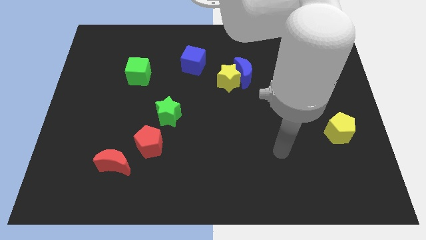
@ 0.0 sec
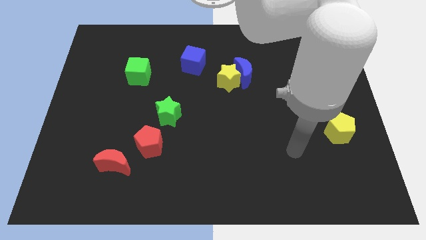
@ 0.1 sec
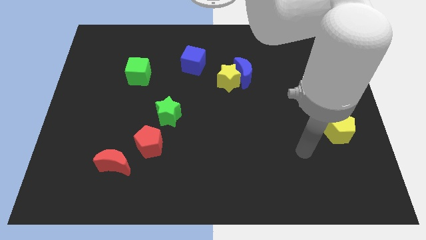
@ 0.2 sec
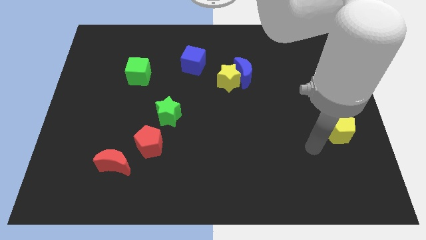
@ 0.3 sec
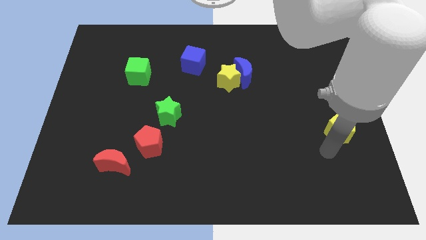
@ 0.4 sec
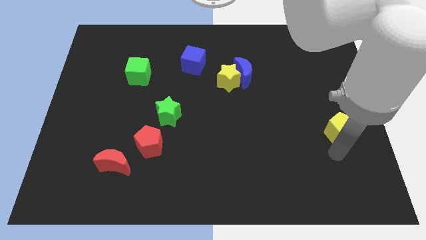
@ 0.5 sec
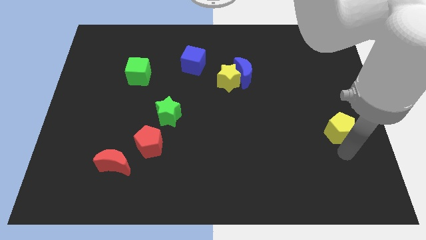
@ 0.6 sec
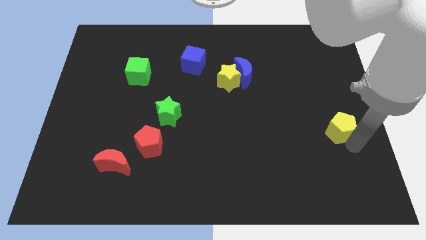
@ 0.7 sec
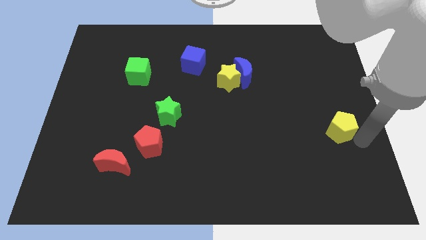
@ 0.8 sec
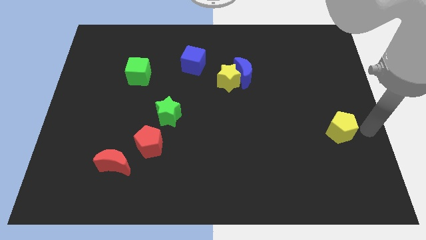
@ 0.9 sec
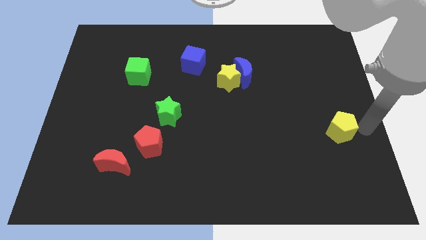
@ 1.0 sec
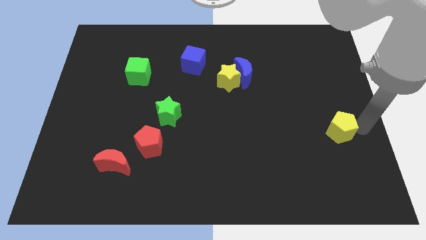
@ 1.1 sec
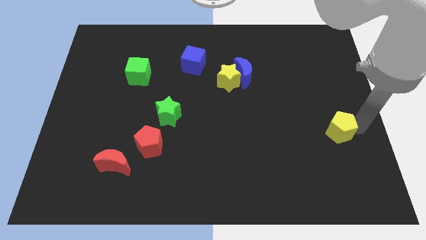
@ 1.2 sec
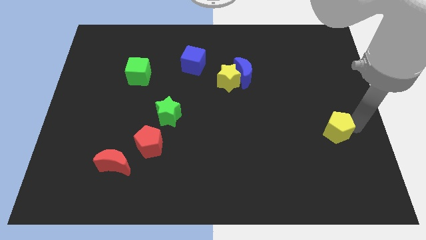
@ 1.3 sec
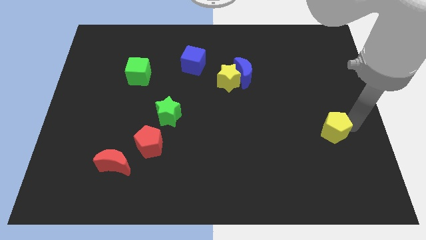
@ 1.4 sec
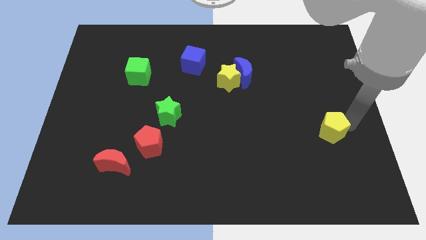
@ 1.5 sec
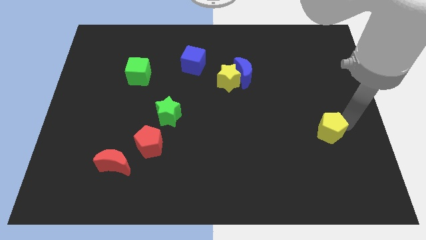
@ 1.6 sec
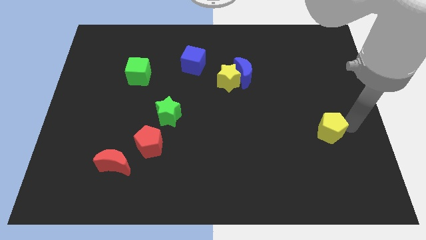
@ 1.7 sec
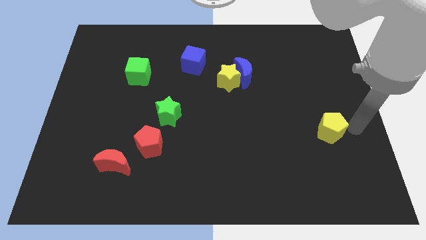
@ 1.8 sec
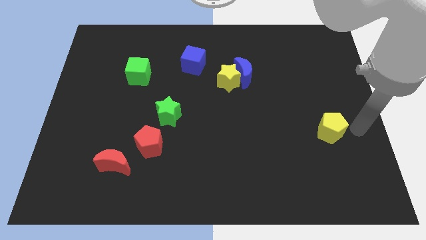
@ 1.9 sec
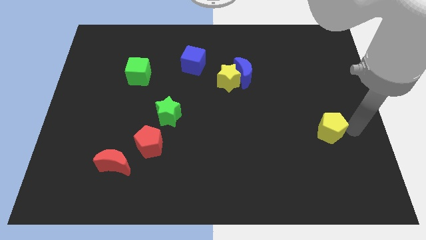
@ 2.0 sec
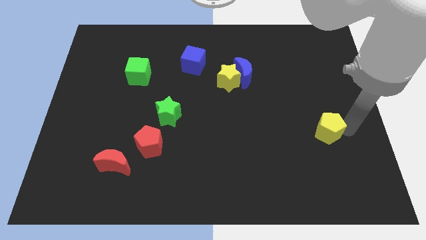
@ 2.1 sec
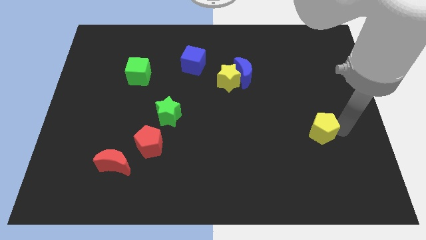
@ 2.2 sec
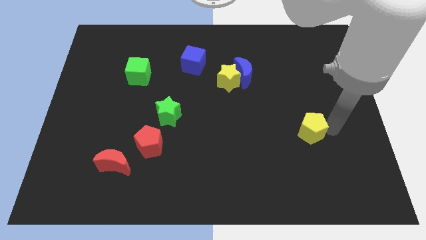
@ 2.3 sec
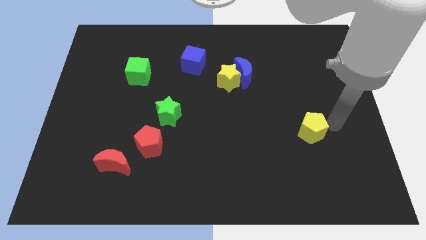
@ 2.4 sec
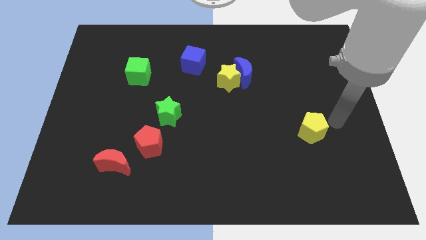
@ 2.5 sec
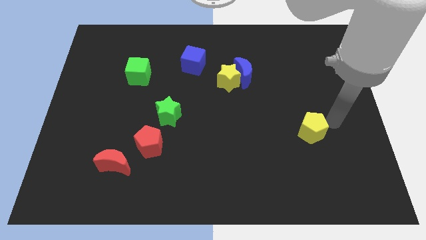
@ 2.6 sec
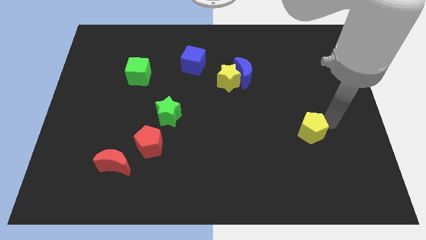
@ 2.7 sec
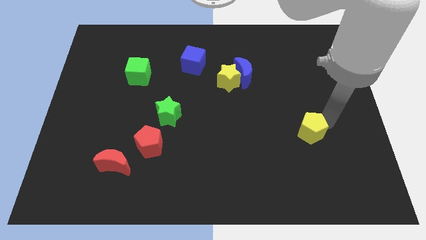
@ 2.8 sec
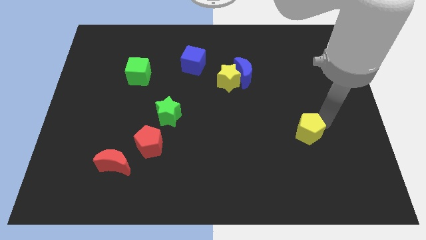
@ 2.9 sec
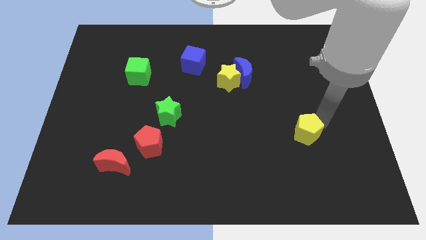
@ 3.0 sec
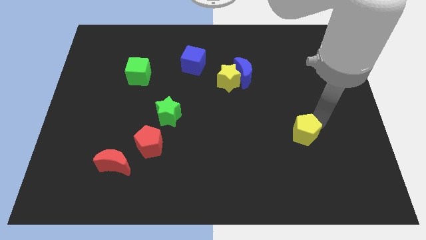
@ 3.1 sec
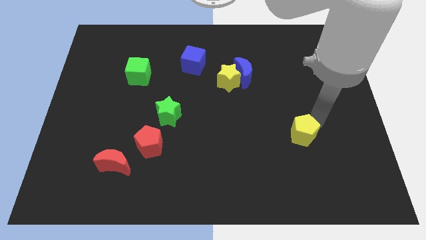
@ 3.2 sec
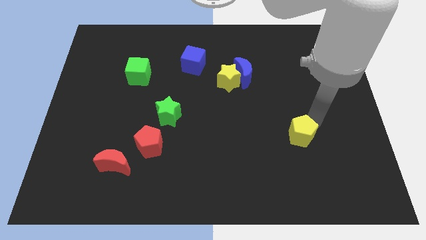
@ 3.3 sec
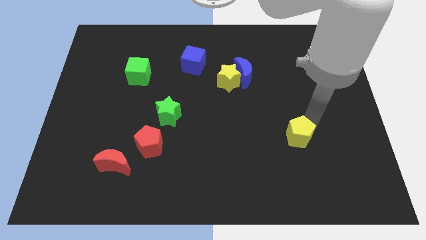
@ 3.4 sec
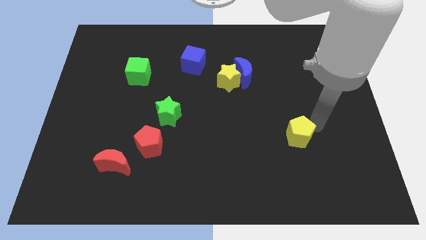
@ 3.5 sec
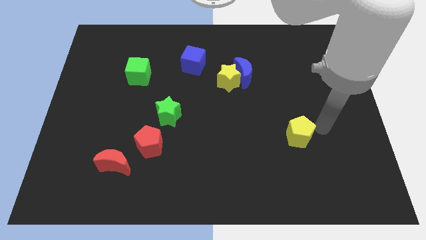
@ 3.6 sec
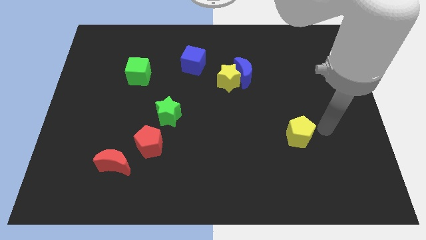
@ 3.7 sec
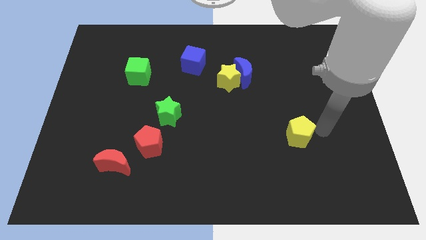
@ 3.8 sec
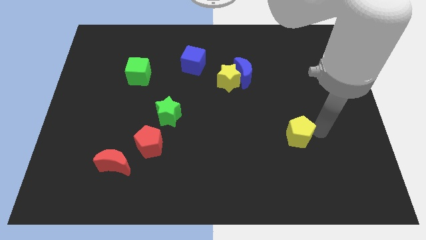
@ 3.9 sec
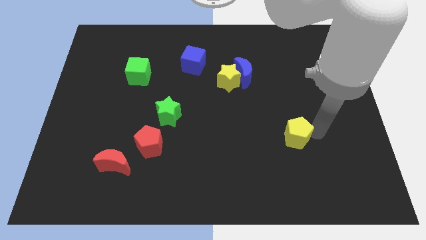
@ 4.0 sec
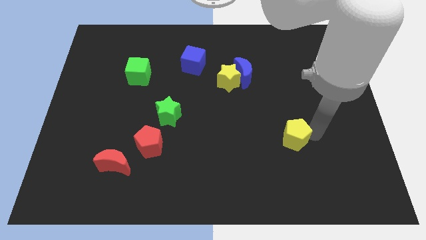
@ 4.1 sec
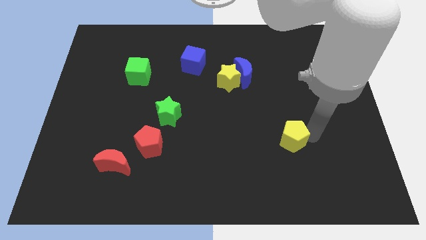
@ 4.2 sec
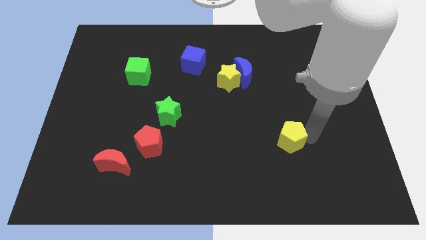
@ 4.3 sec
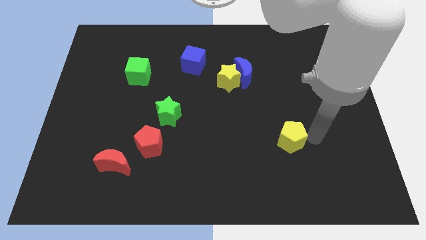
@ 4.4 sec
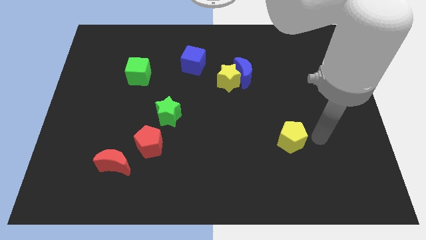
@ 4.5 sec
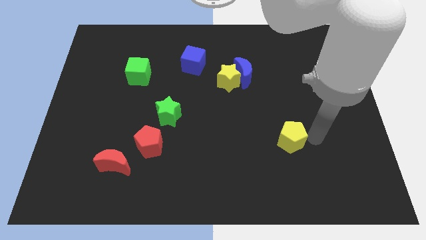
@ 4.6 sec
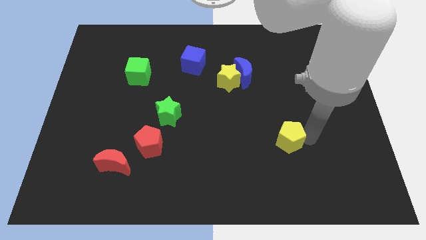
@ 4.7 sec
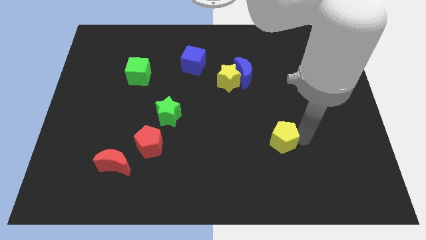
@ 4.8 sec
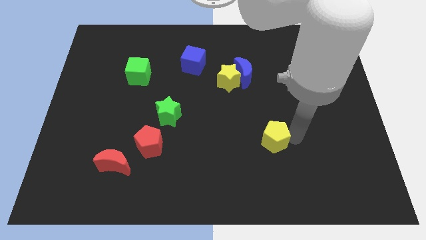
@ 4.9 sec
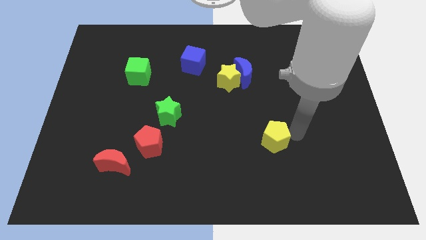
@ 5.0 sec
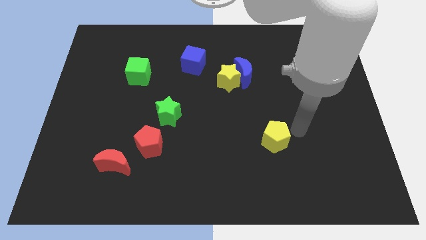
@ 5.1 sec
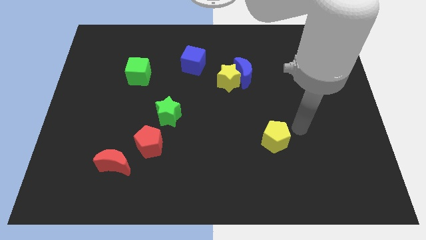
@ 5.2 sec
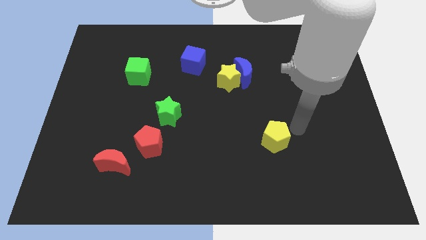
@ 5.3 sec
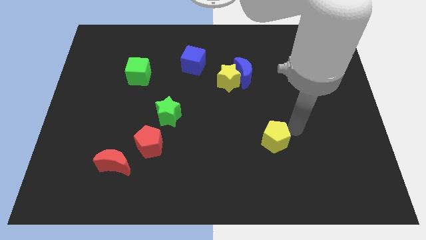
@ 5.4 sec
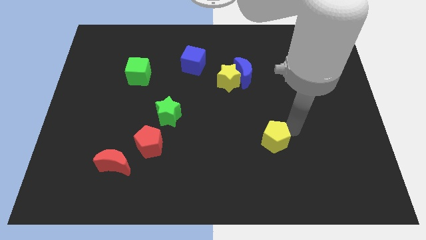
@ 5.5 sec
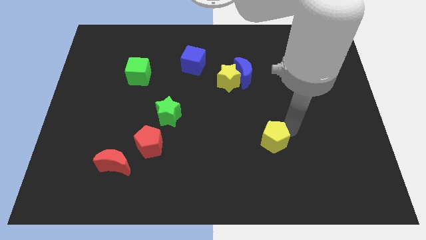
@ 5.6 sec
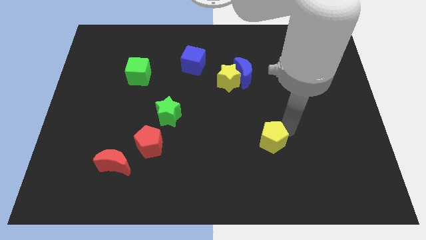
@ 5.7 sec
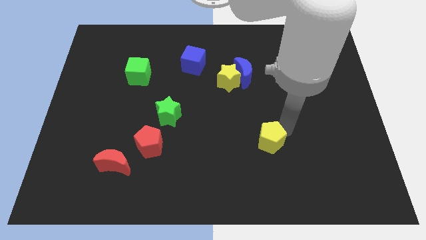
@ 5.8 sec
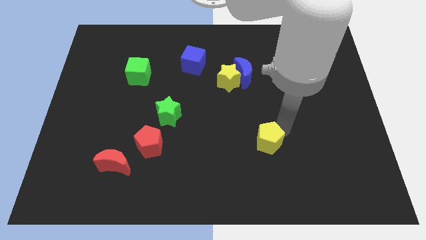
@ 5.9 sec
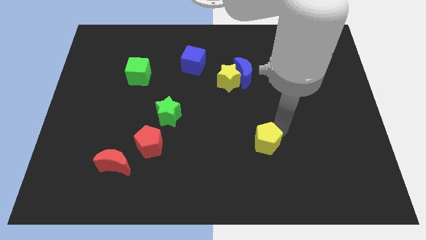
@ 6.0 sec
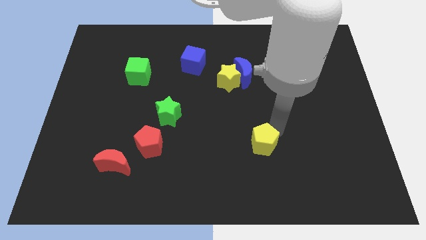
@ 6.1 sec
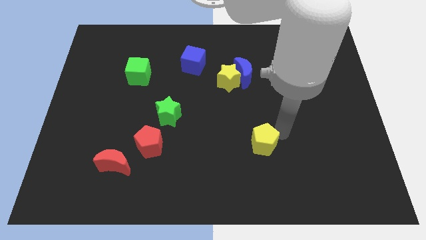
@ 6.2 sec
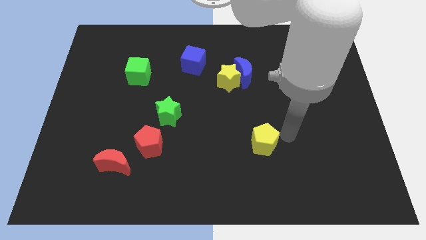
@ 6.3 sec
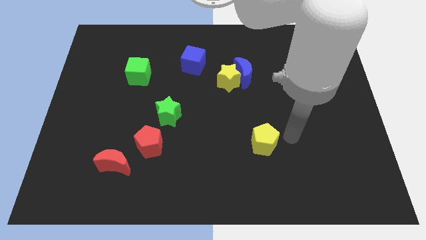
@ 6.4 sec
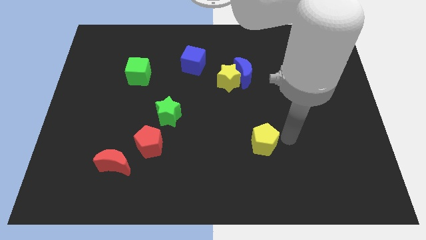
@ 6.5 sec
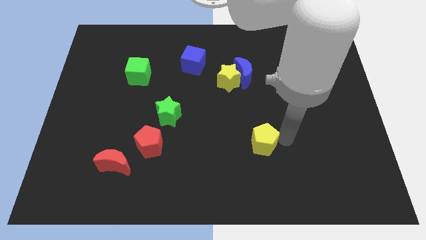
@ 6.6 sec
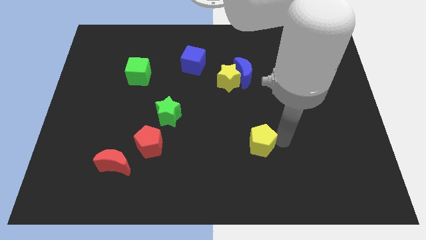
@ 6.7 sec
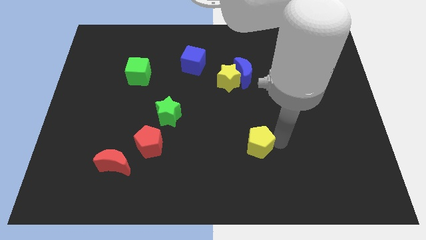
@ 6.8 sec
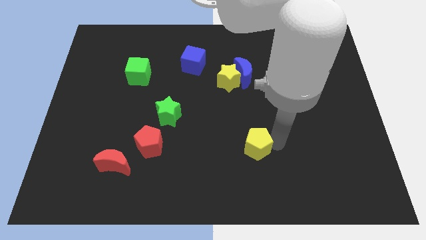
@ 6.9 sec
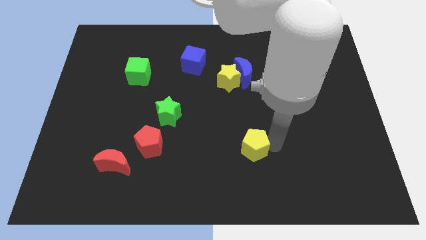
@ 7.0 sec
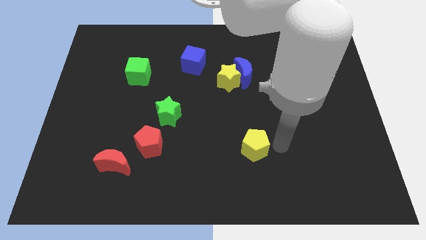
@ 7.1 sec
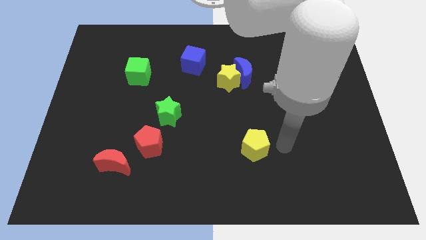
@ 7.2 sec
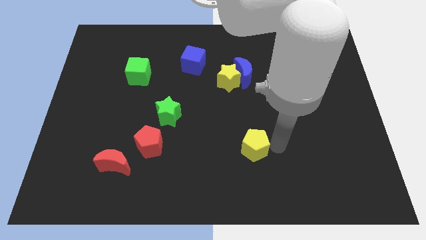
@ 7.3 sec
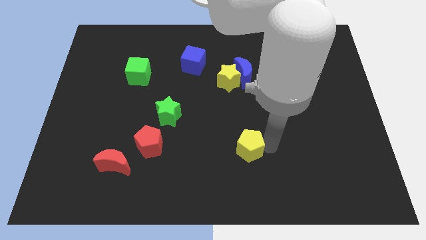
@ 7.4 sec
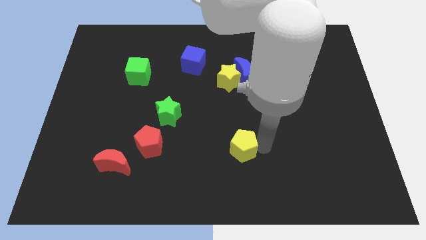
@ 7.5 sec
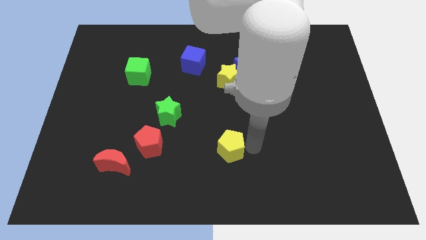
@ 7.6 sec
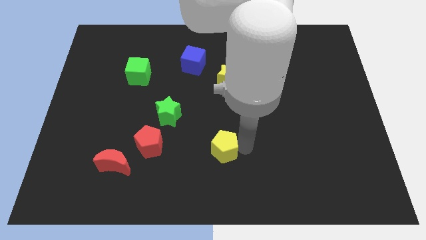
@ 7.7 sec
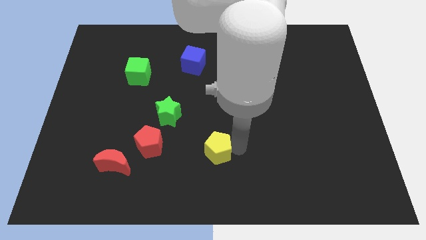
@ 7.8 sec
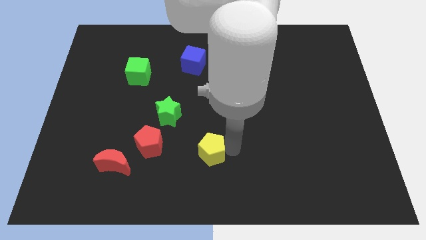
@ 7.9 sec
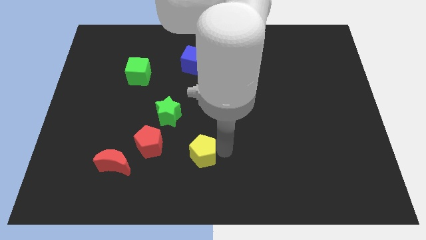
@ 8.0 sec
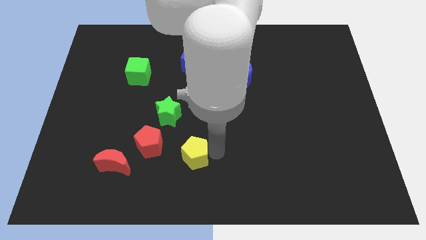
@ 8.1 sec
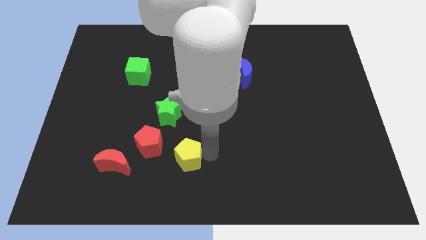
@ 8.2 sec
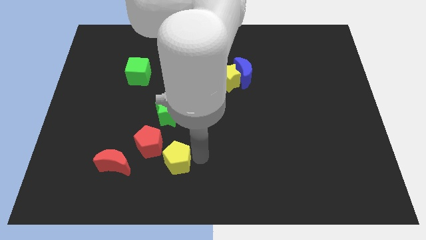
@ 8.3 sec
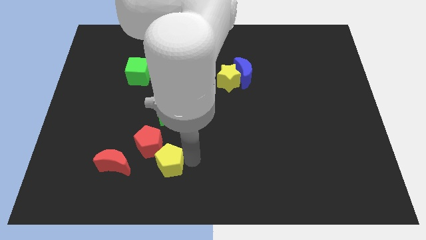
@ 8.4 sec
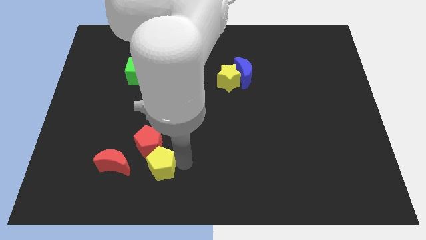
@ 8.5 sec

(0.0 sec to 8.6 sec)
move the yellow pentagon towards the red pentagon
